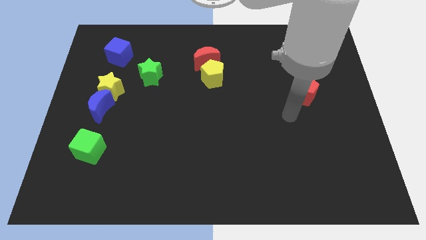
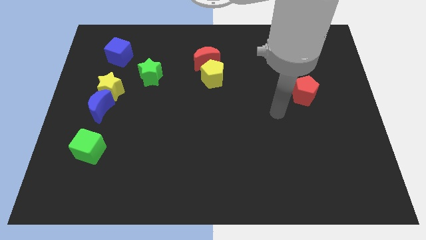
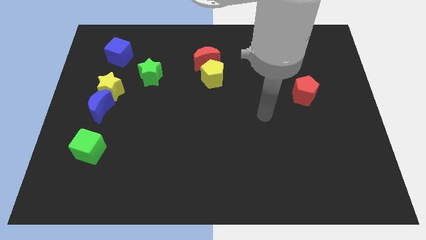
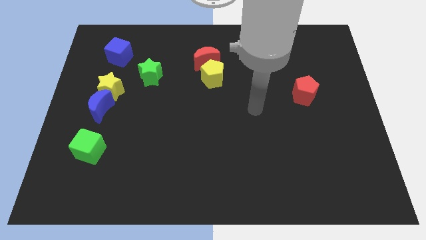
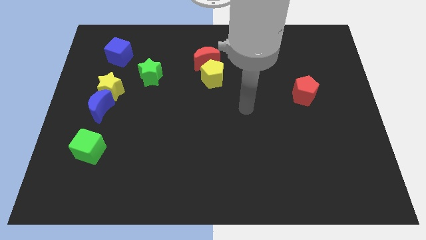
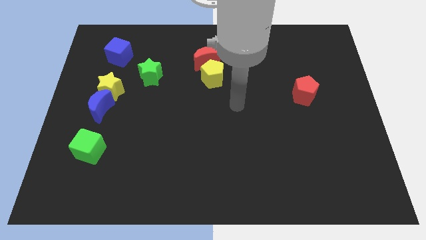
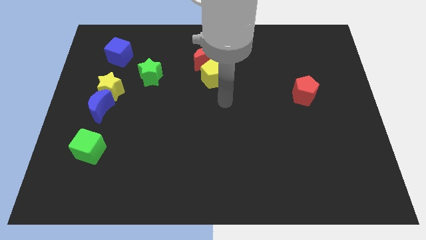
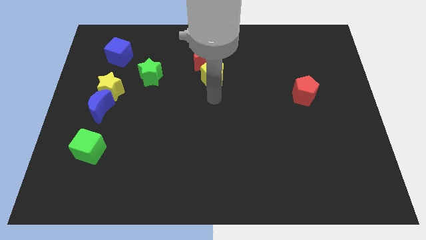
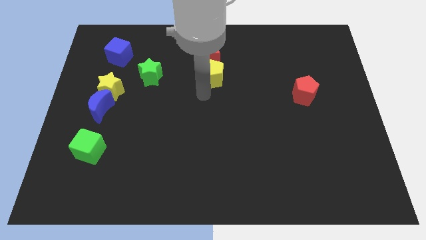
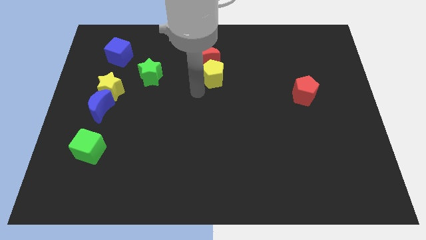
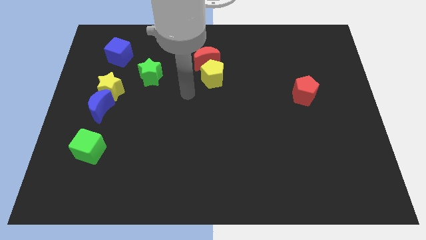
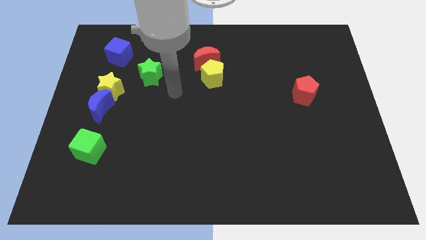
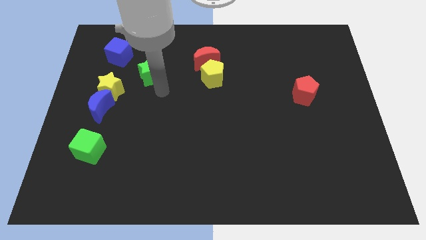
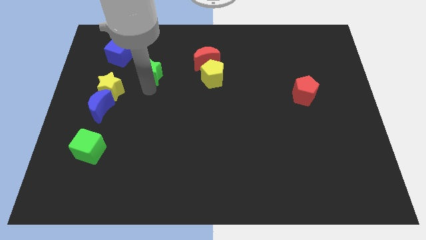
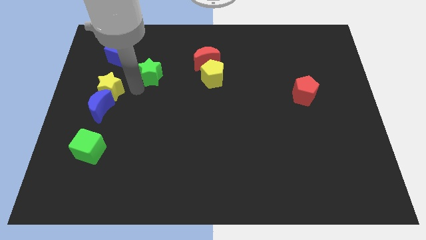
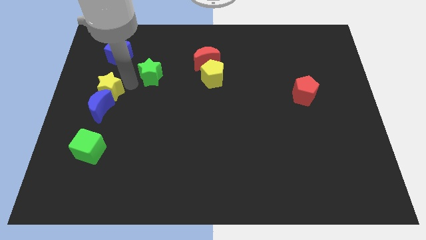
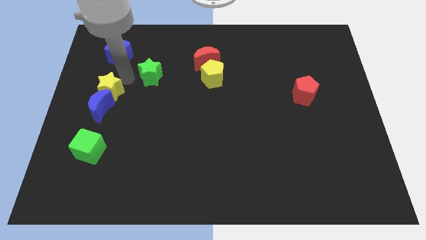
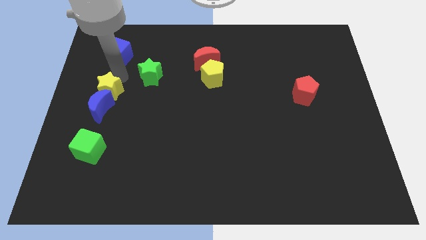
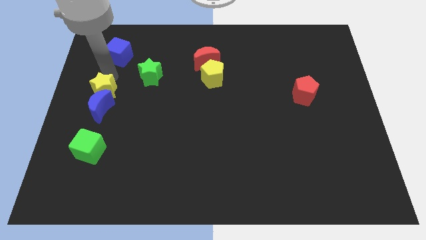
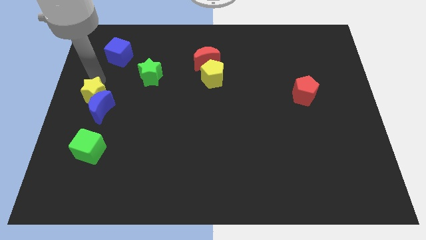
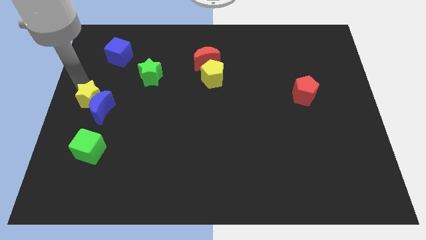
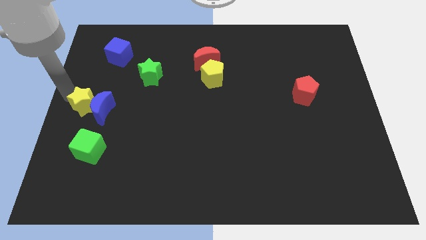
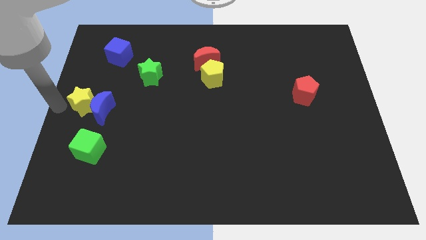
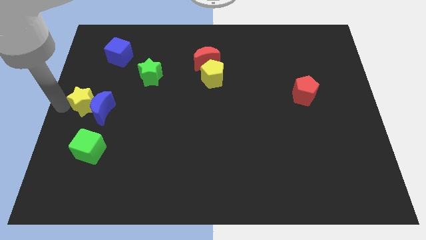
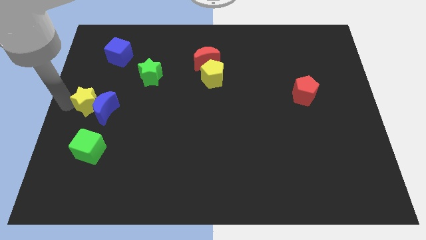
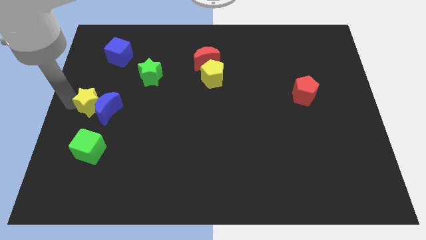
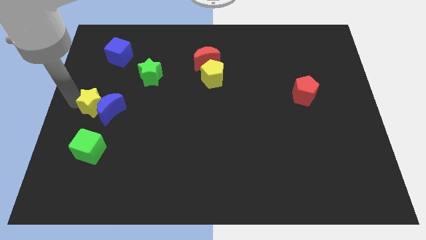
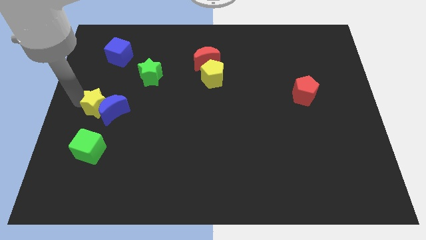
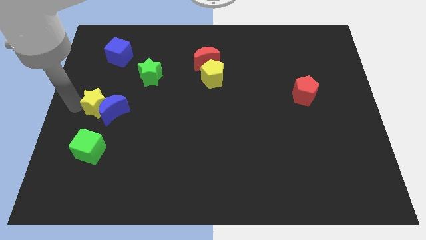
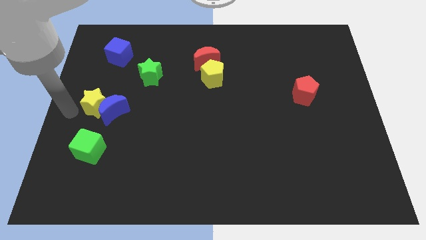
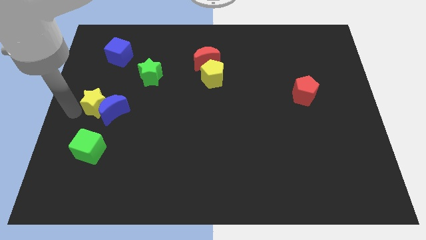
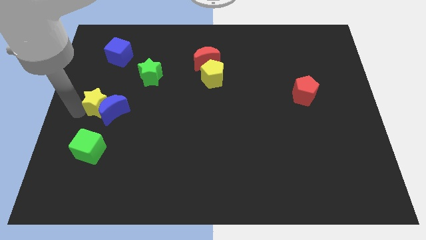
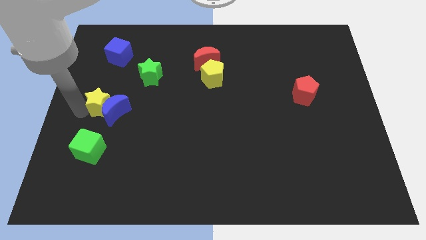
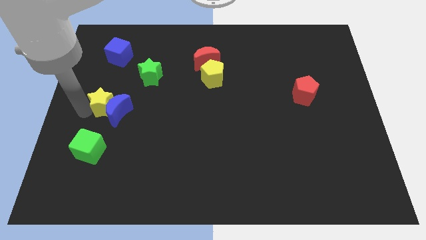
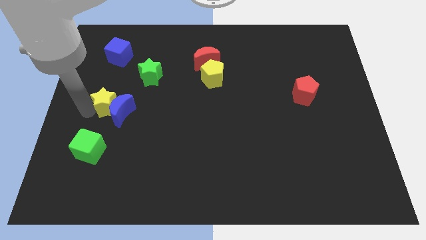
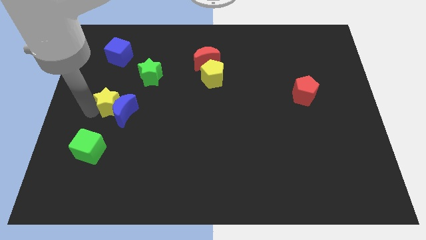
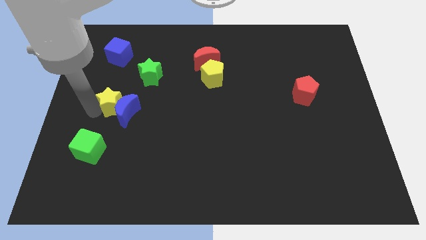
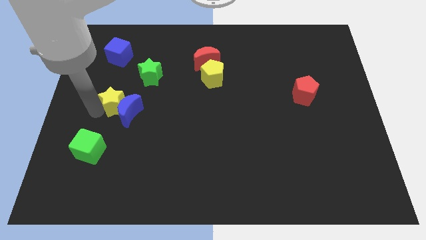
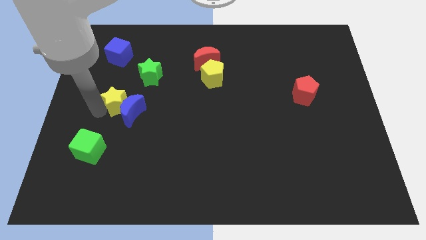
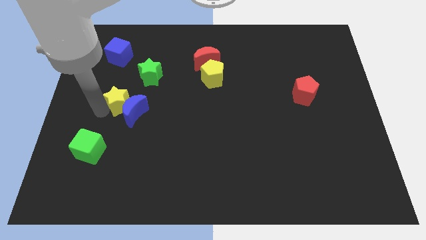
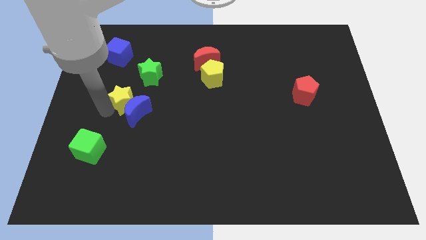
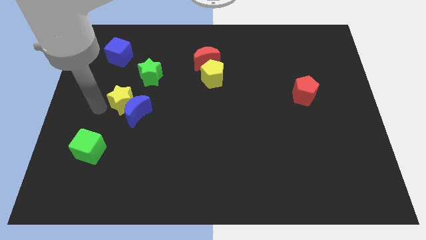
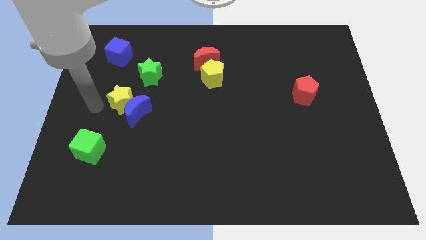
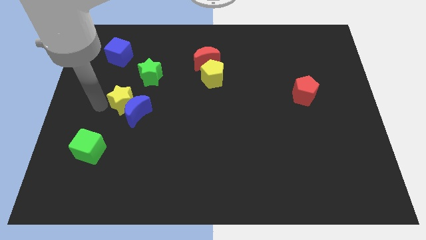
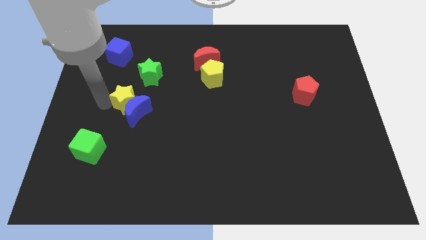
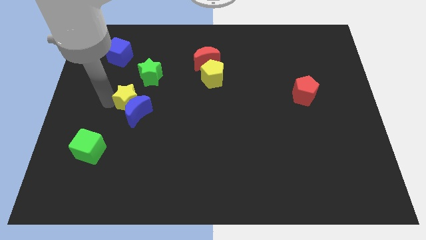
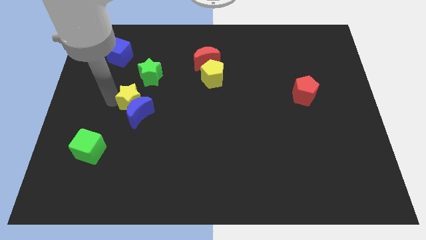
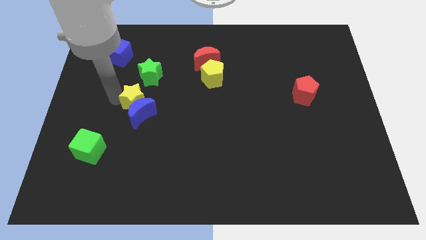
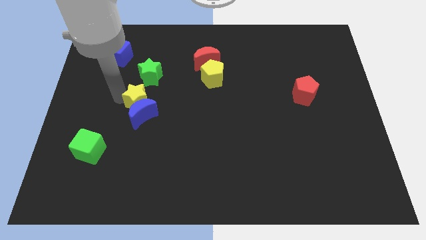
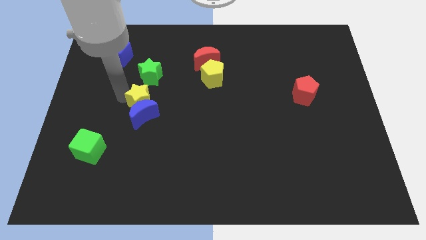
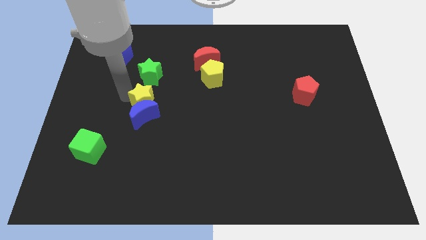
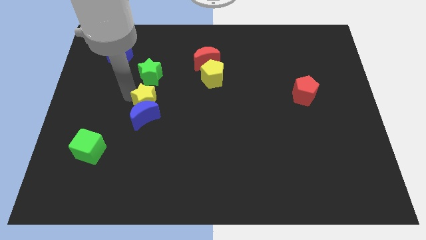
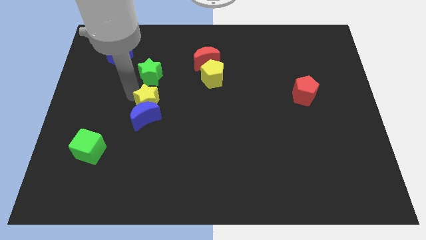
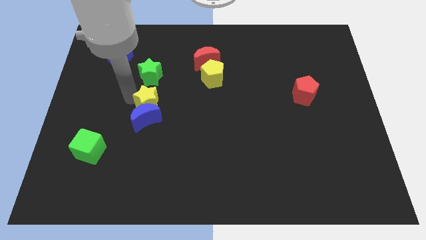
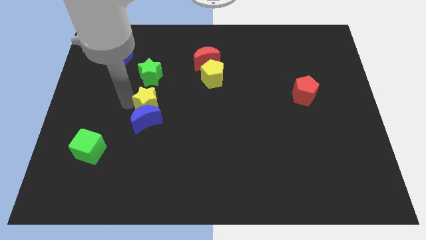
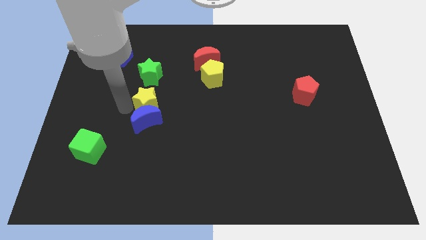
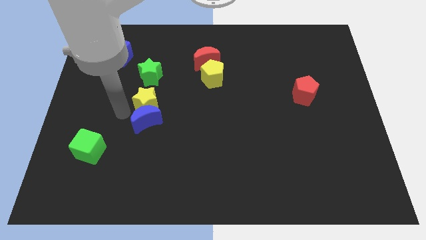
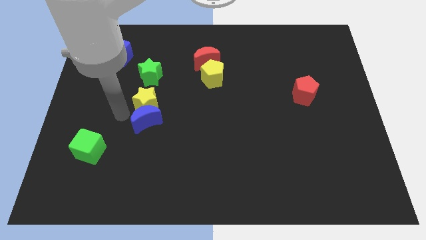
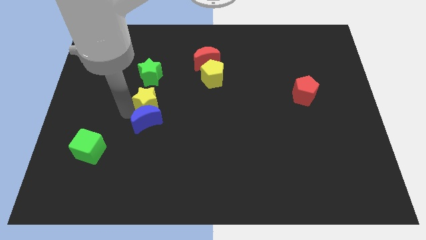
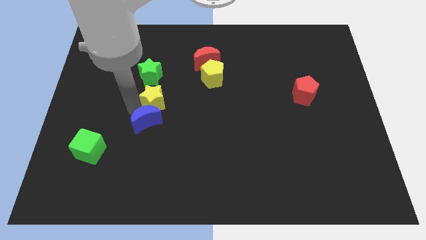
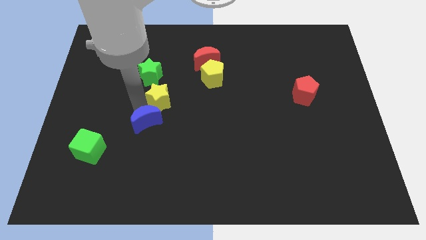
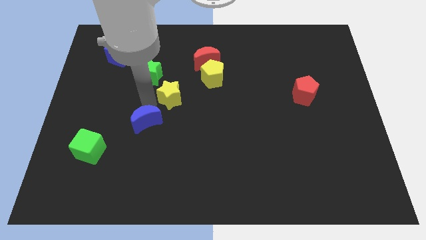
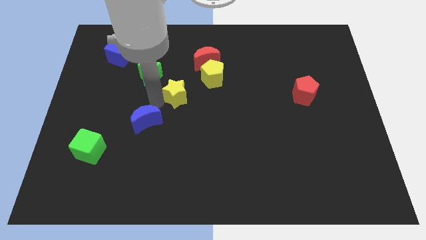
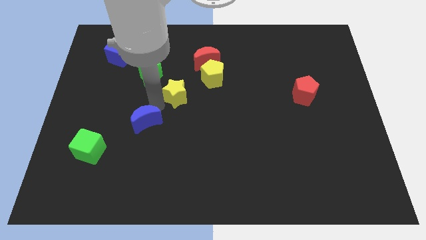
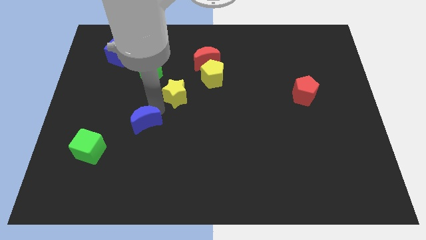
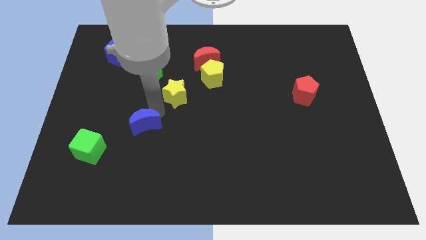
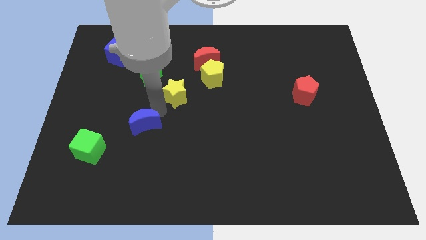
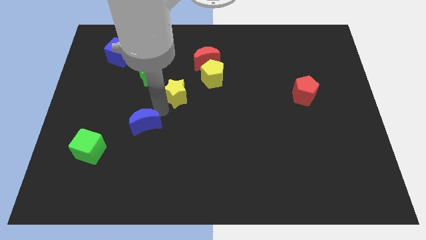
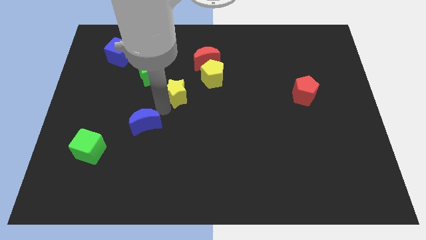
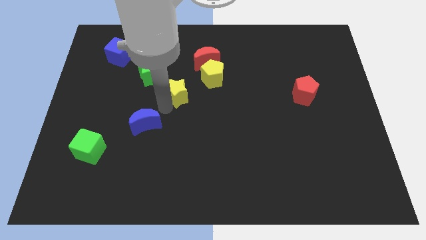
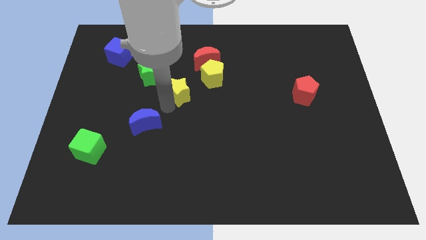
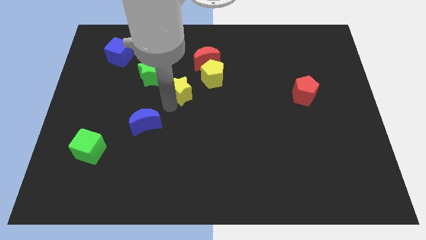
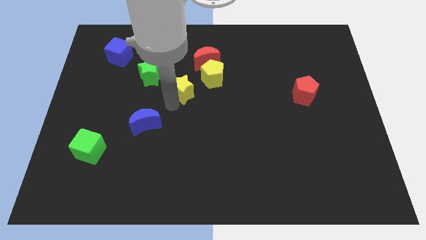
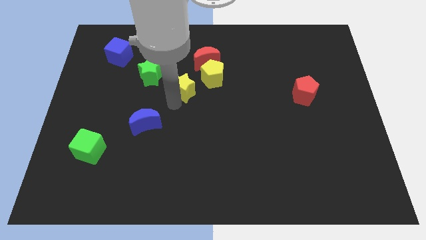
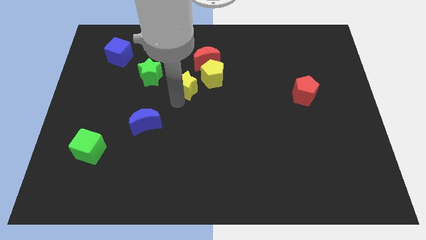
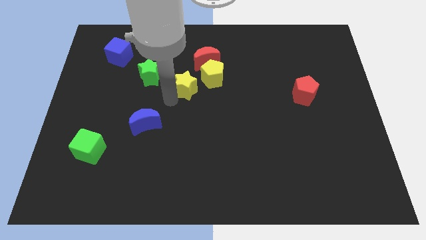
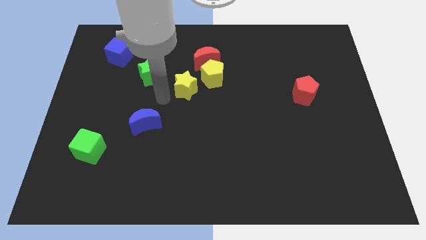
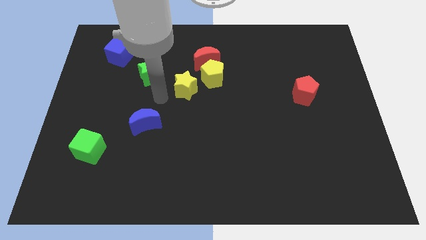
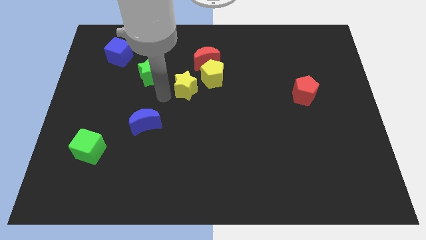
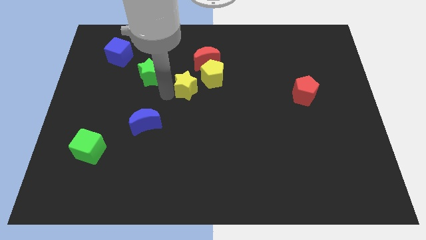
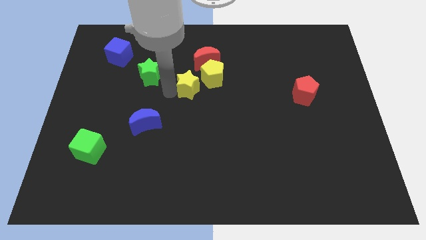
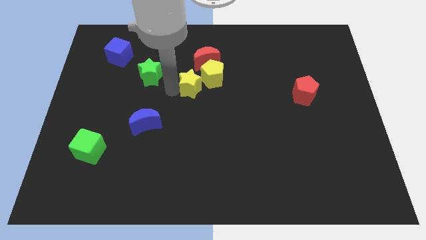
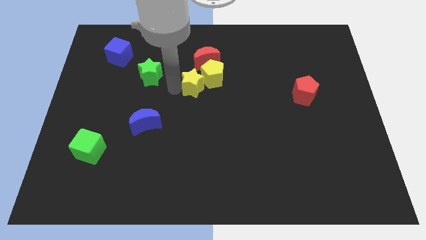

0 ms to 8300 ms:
slide the yellow star towards the yellow pentagon
